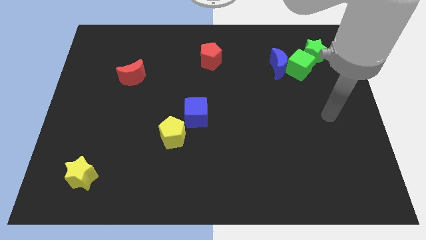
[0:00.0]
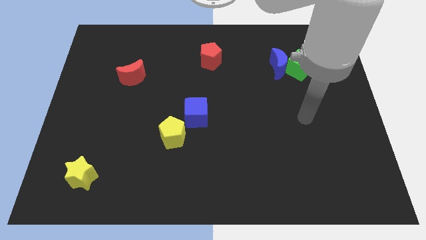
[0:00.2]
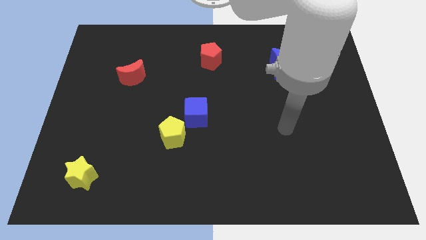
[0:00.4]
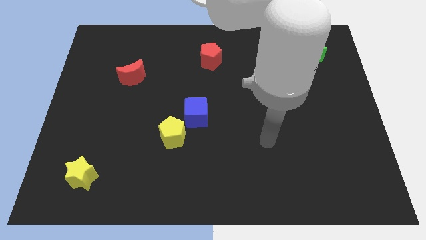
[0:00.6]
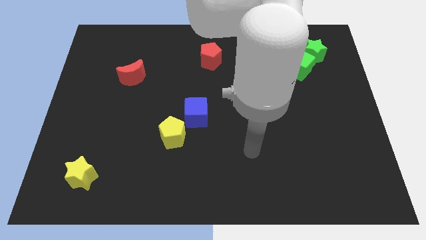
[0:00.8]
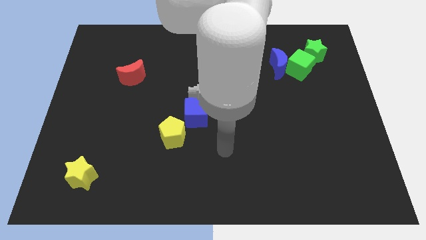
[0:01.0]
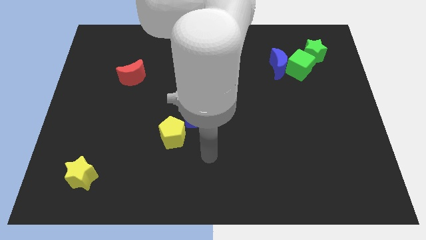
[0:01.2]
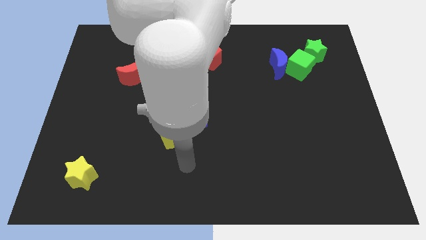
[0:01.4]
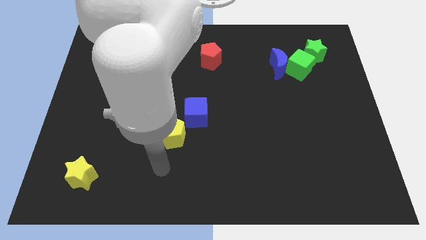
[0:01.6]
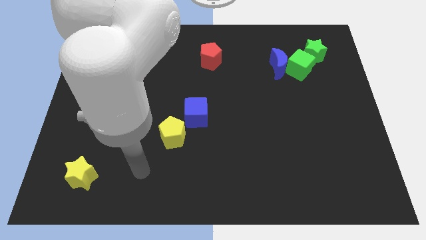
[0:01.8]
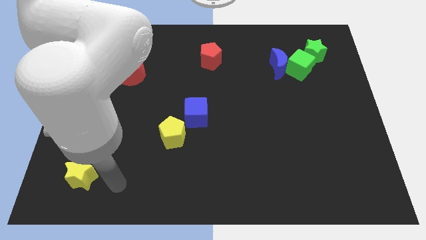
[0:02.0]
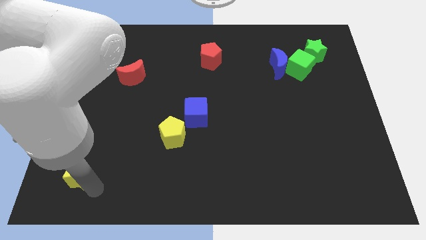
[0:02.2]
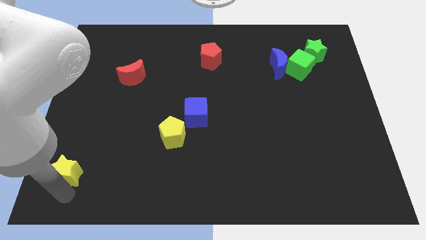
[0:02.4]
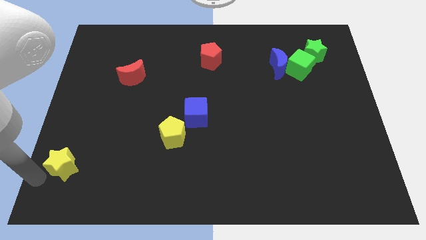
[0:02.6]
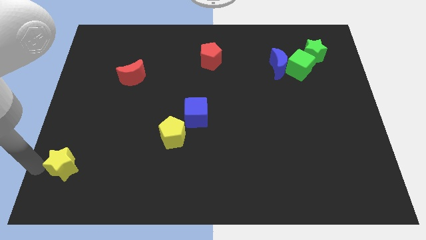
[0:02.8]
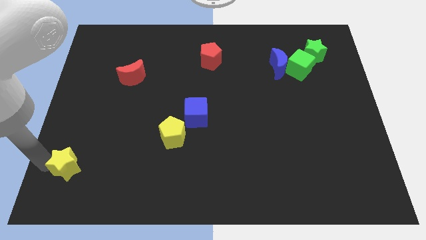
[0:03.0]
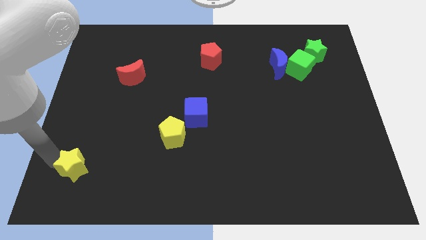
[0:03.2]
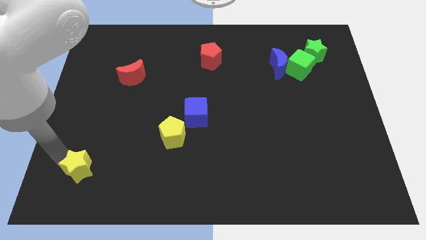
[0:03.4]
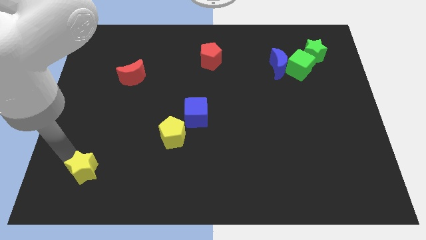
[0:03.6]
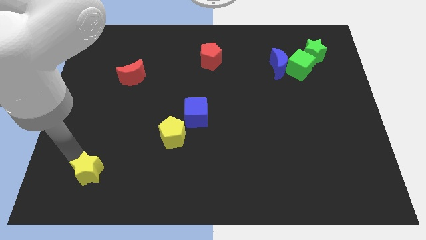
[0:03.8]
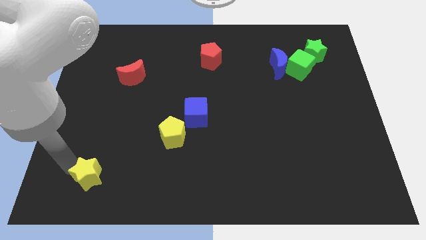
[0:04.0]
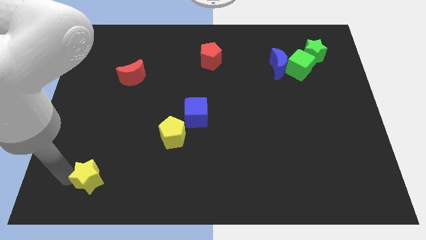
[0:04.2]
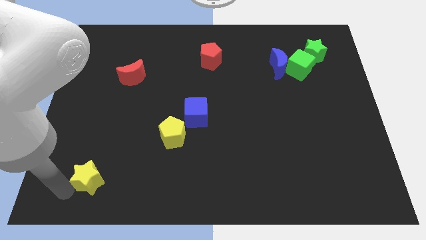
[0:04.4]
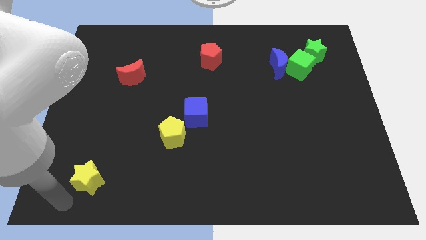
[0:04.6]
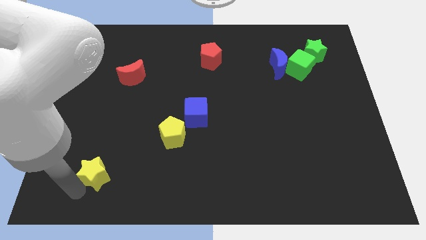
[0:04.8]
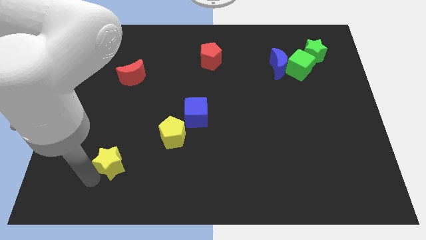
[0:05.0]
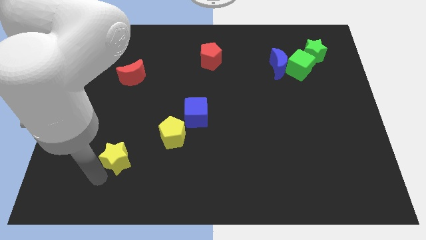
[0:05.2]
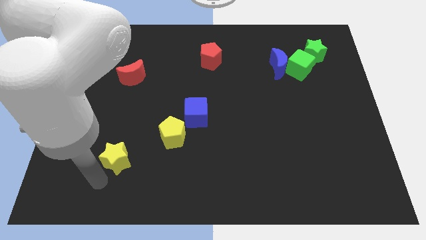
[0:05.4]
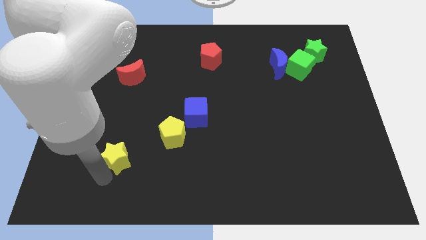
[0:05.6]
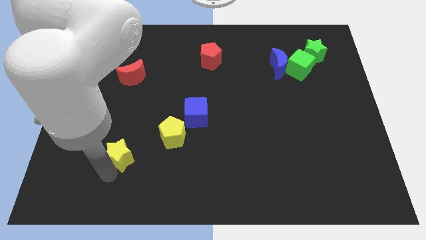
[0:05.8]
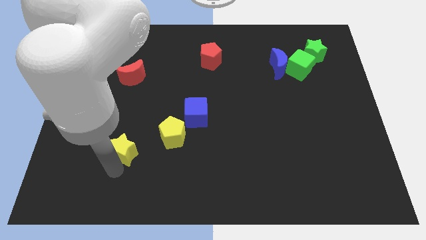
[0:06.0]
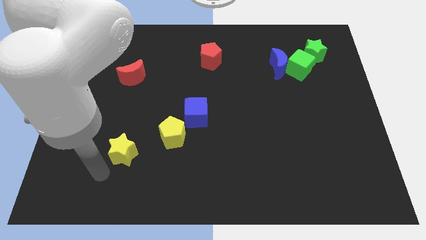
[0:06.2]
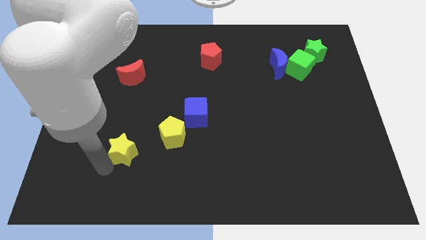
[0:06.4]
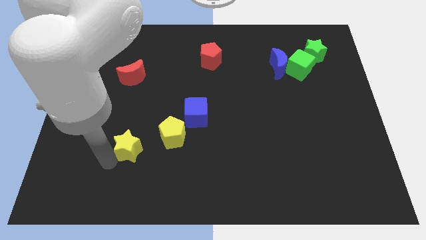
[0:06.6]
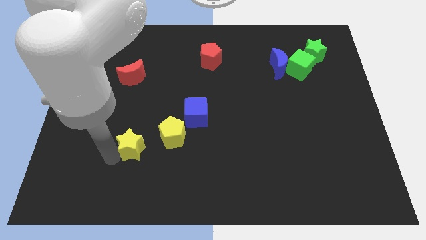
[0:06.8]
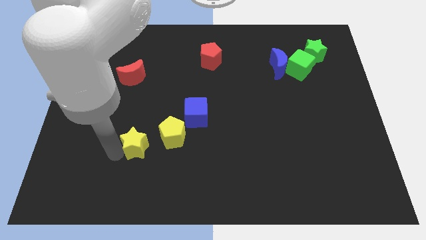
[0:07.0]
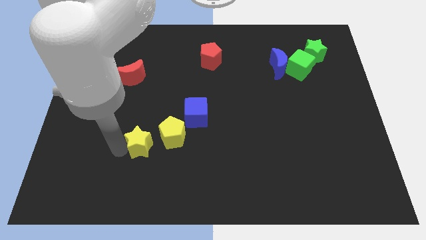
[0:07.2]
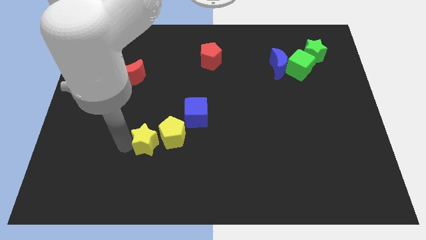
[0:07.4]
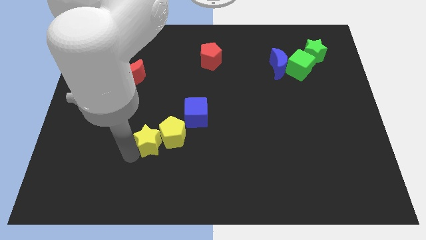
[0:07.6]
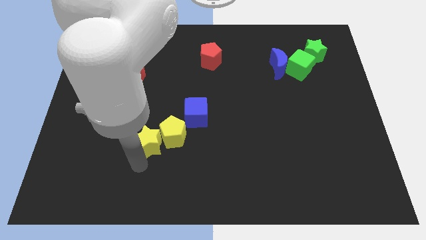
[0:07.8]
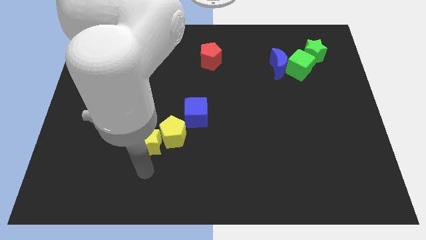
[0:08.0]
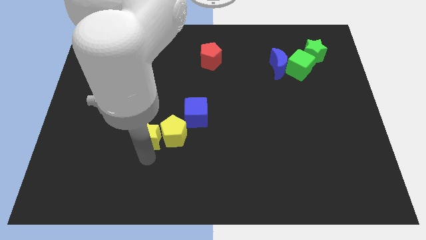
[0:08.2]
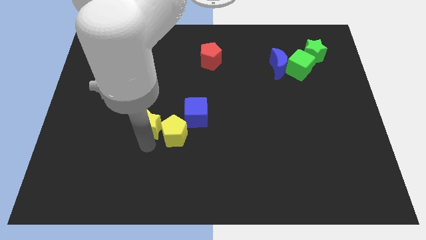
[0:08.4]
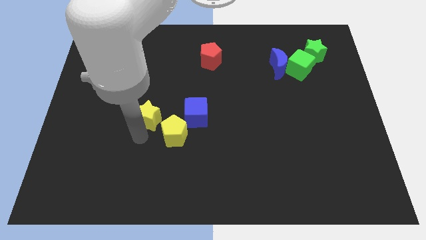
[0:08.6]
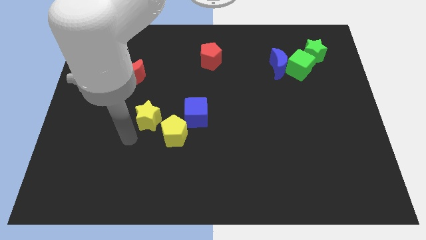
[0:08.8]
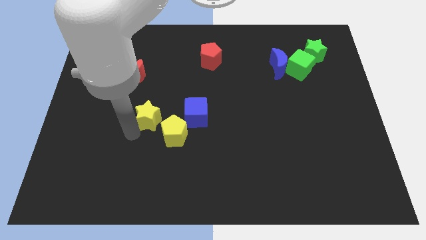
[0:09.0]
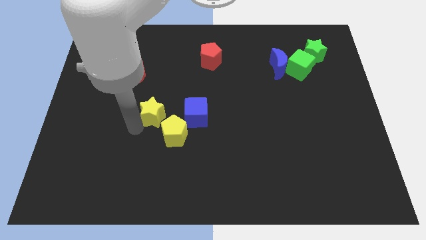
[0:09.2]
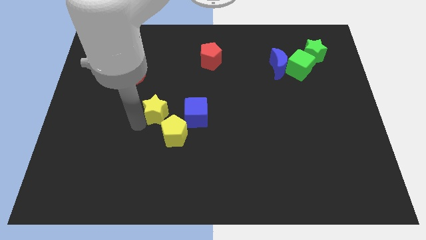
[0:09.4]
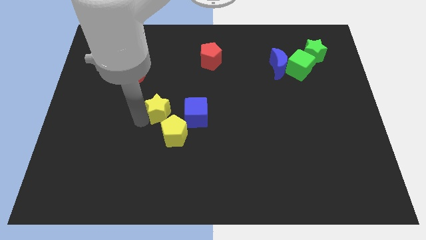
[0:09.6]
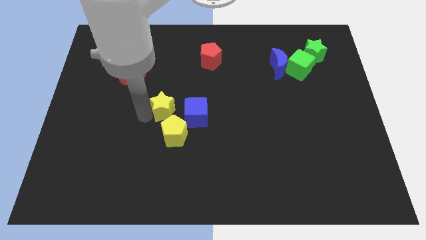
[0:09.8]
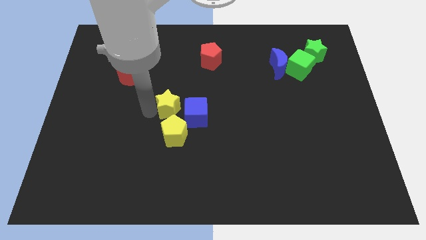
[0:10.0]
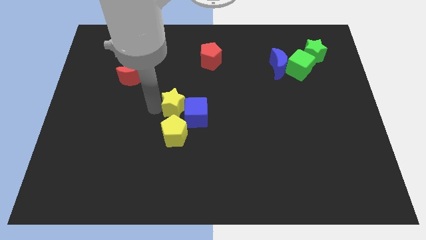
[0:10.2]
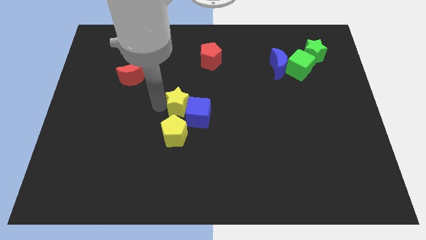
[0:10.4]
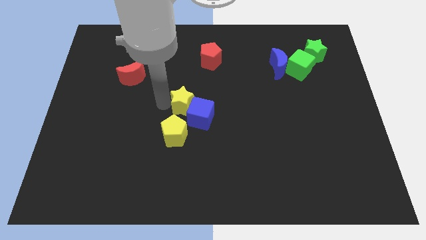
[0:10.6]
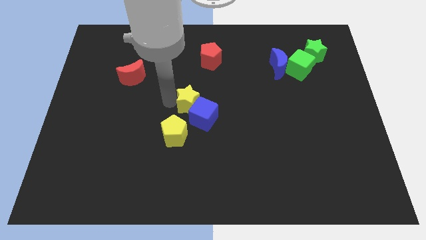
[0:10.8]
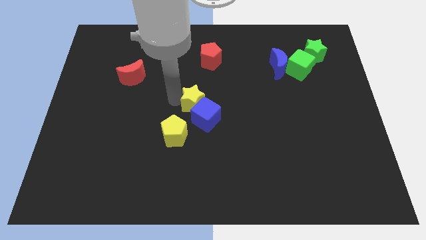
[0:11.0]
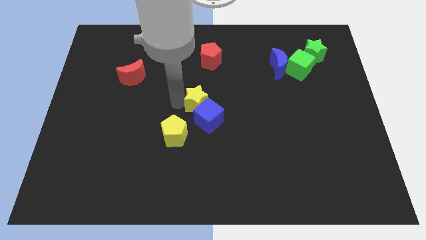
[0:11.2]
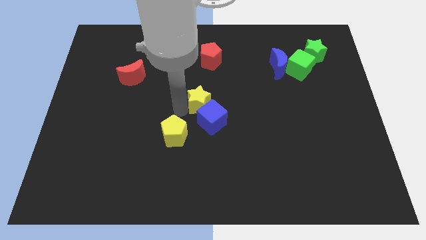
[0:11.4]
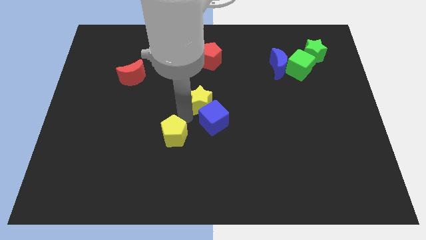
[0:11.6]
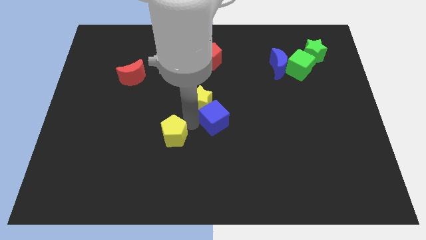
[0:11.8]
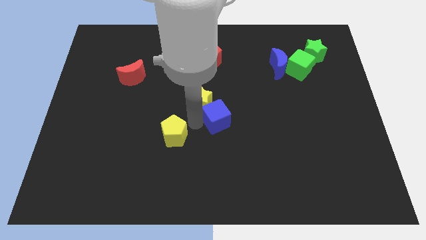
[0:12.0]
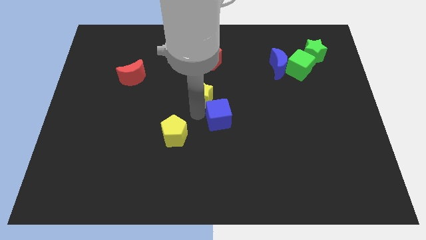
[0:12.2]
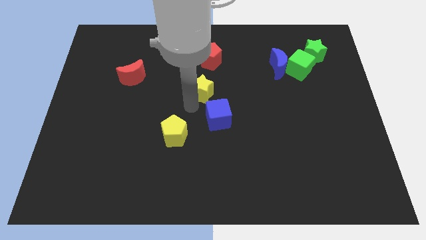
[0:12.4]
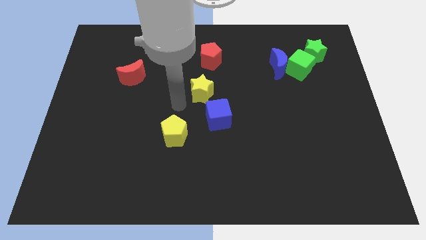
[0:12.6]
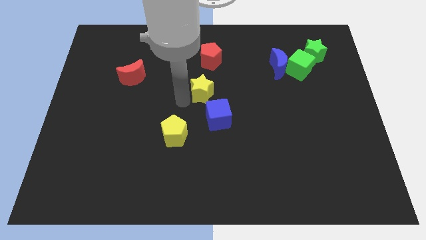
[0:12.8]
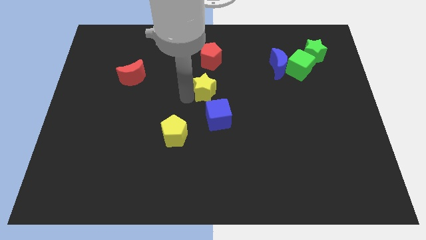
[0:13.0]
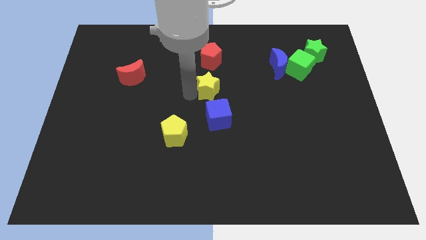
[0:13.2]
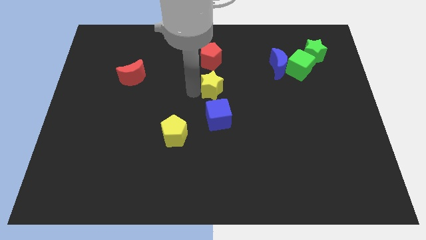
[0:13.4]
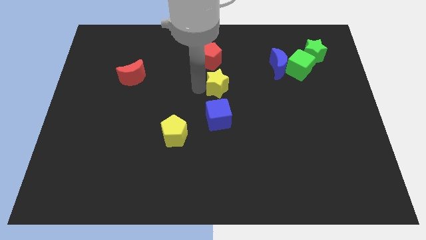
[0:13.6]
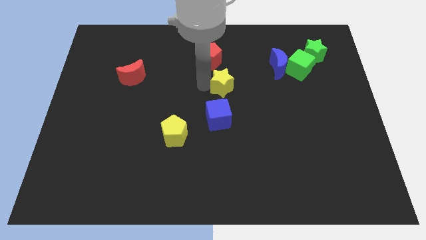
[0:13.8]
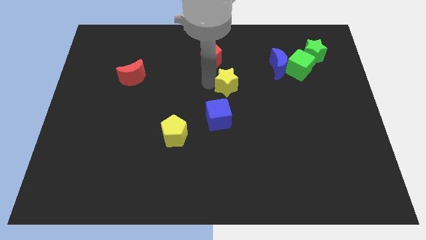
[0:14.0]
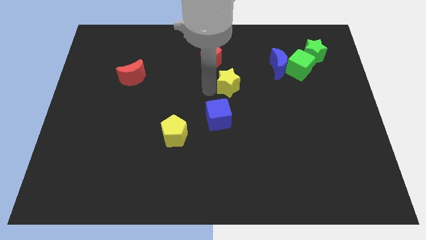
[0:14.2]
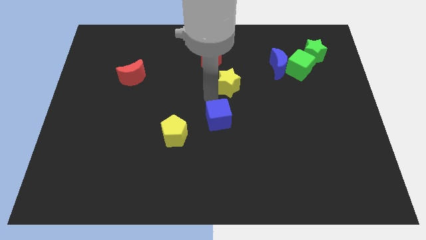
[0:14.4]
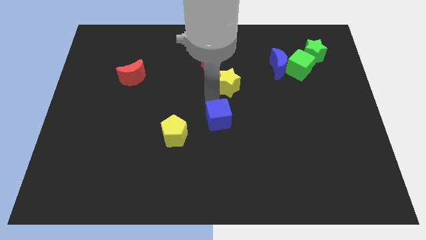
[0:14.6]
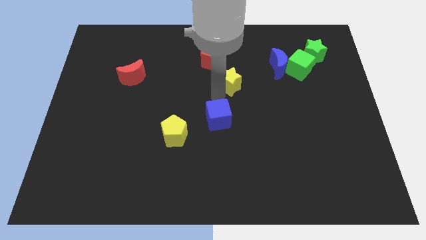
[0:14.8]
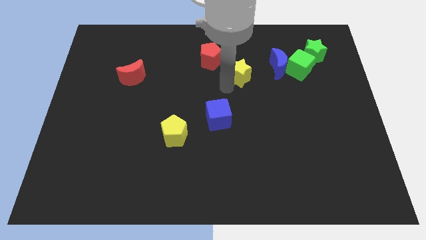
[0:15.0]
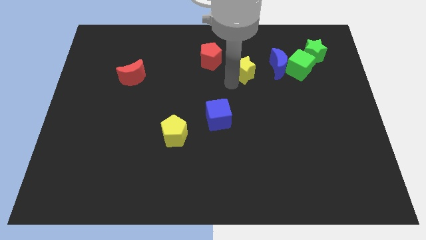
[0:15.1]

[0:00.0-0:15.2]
move the yellow star right of the red pentagon
